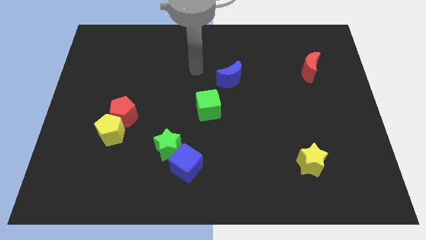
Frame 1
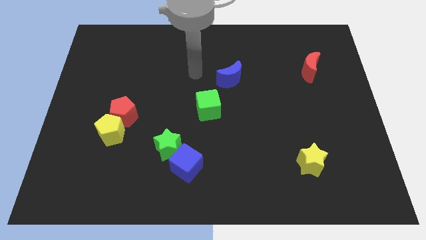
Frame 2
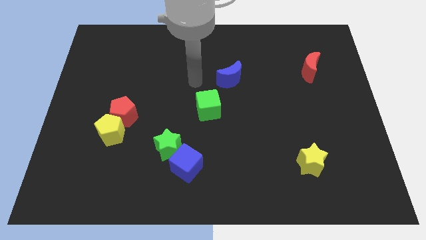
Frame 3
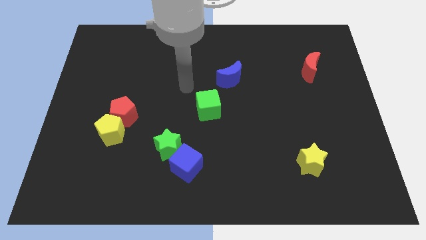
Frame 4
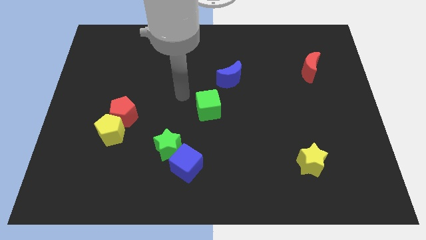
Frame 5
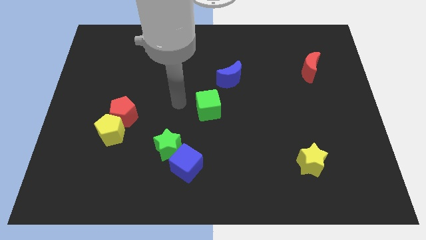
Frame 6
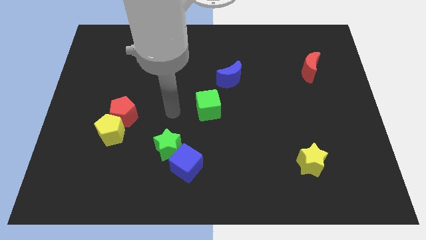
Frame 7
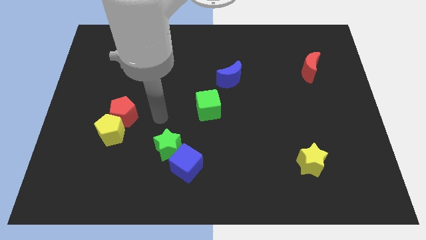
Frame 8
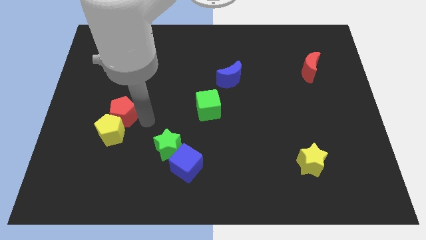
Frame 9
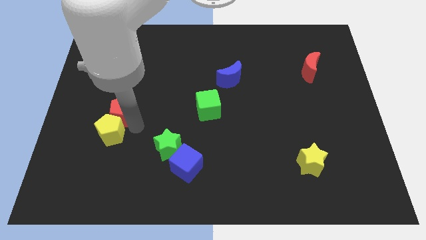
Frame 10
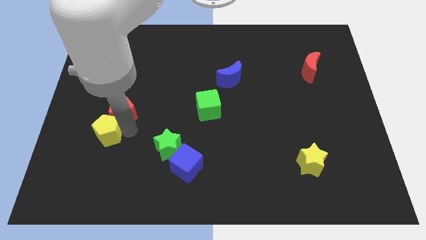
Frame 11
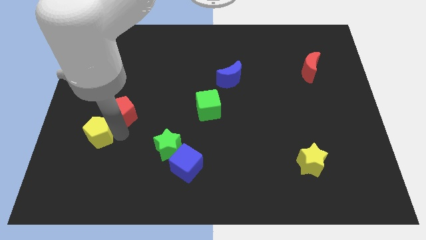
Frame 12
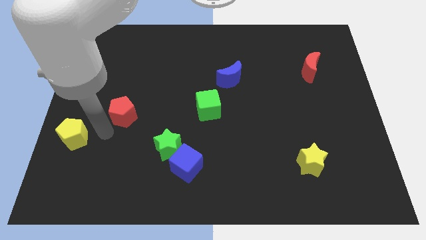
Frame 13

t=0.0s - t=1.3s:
pull the red pentagon apart from the yellow pentagon

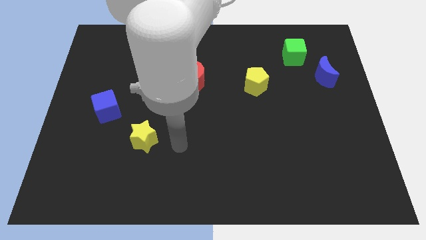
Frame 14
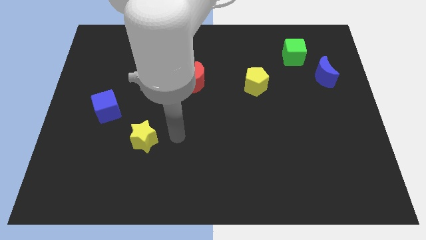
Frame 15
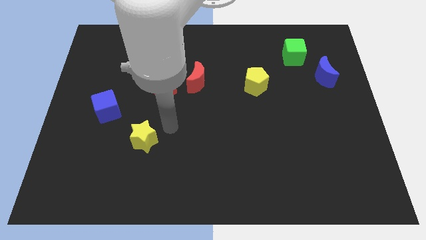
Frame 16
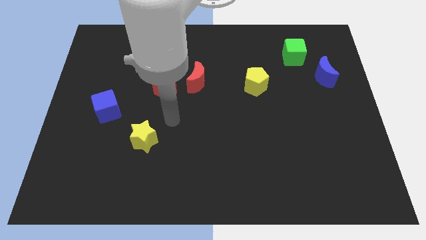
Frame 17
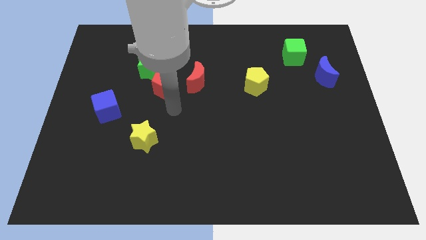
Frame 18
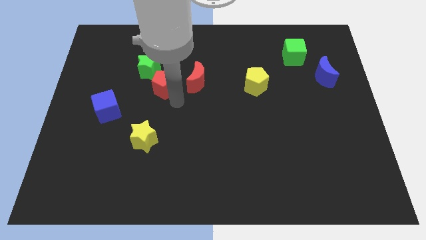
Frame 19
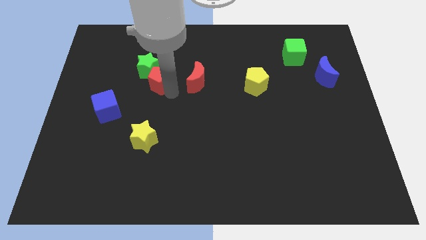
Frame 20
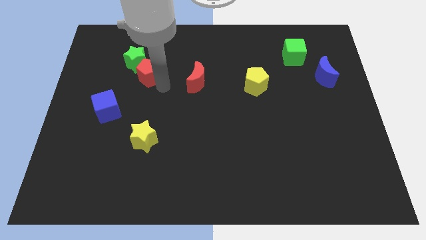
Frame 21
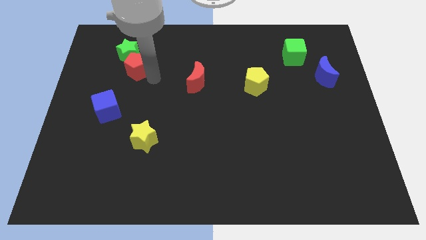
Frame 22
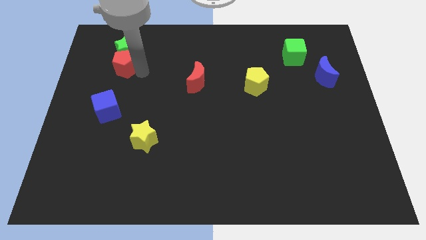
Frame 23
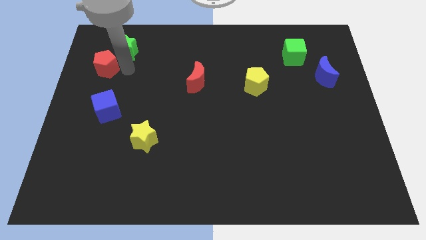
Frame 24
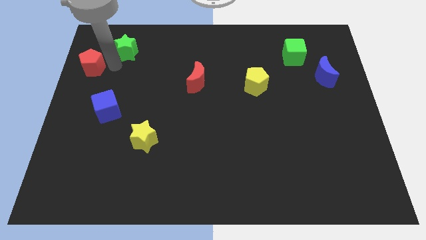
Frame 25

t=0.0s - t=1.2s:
pull the green star apart from the red pentagon

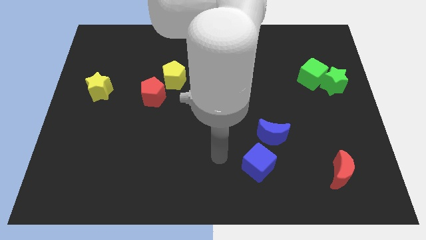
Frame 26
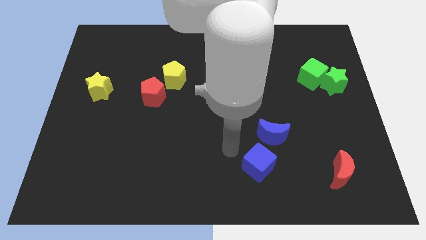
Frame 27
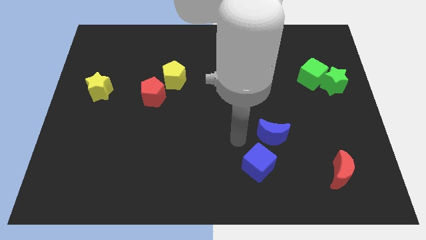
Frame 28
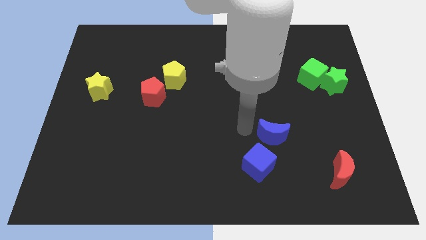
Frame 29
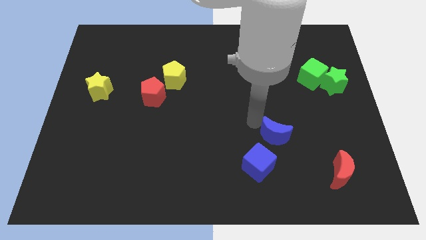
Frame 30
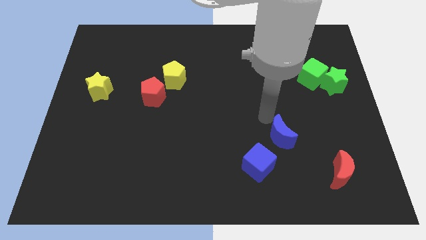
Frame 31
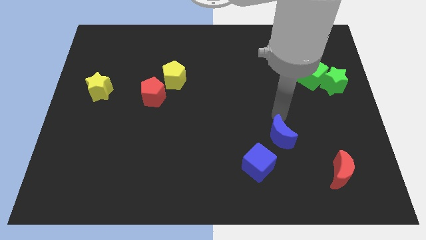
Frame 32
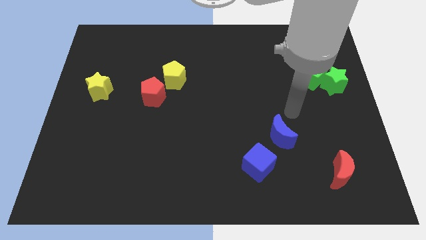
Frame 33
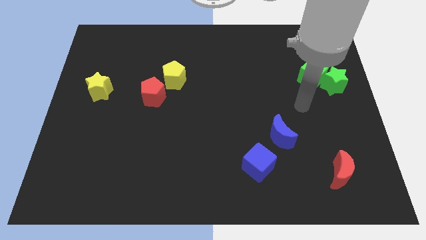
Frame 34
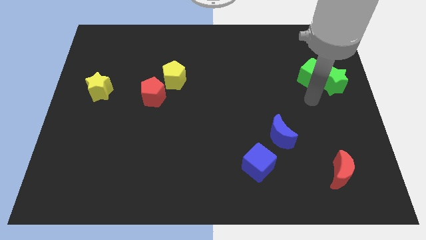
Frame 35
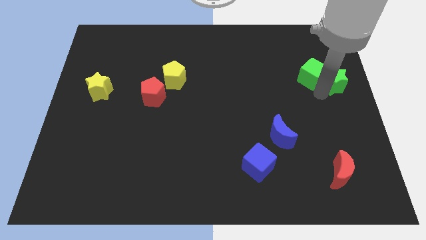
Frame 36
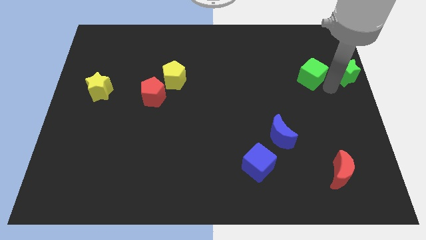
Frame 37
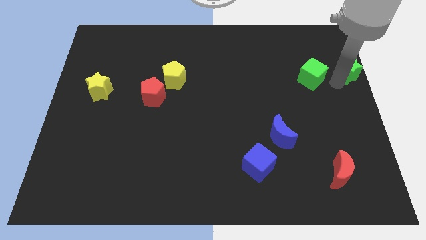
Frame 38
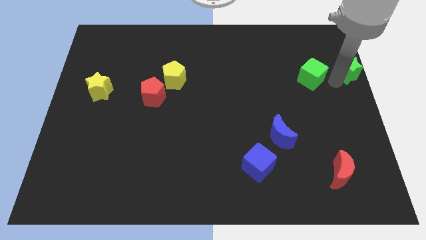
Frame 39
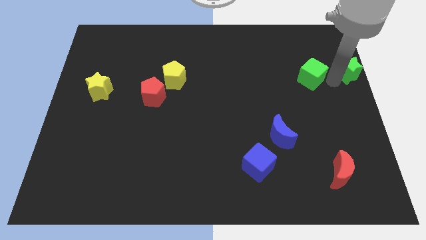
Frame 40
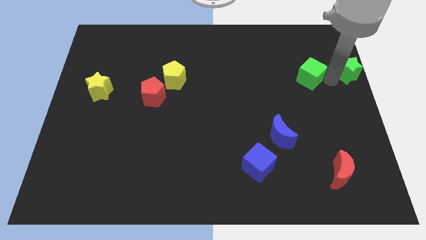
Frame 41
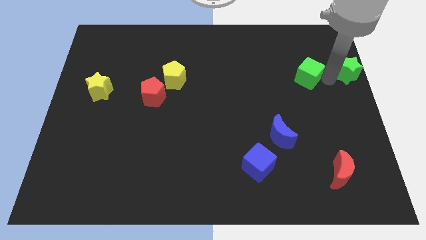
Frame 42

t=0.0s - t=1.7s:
move the green cube away from the green star

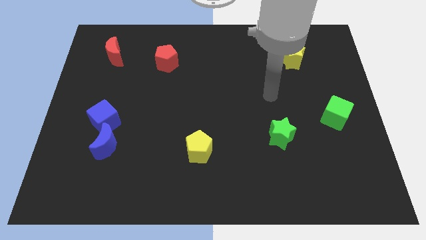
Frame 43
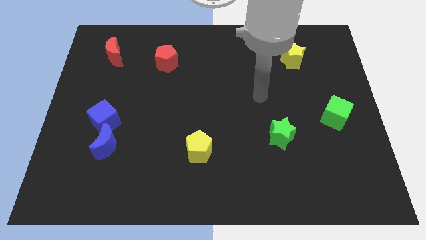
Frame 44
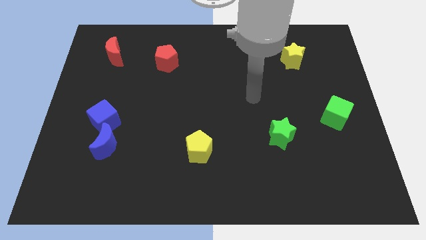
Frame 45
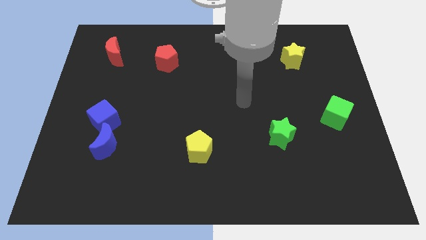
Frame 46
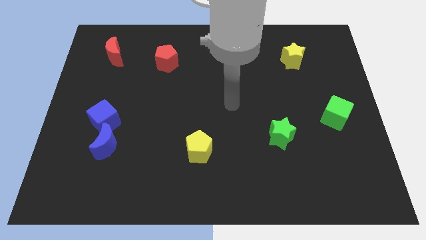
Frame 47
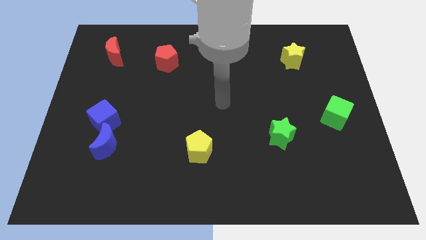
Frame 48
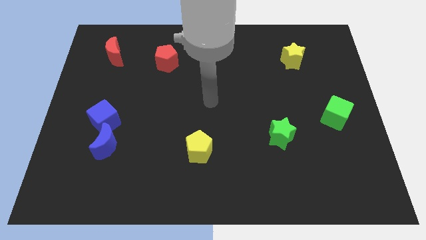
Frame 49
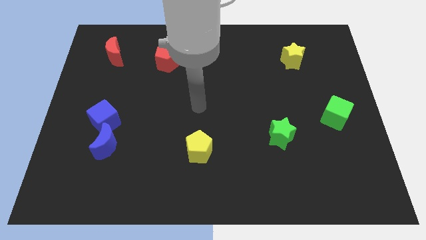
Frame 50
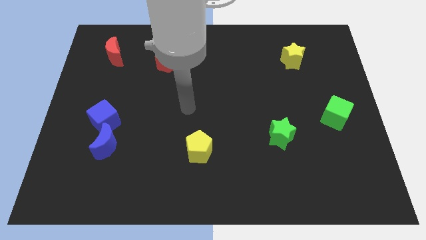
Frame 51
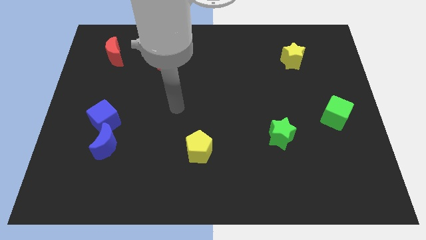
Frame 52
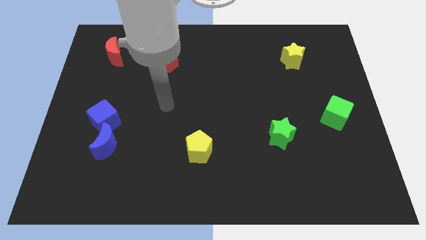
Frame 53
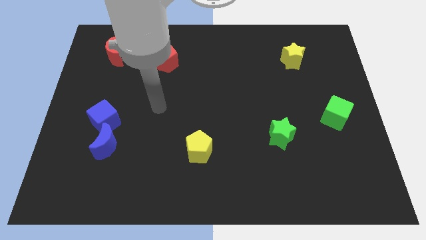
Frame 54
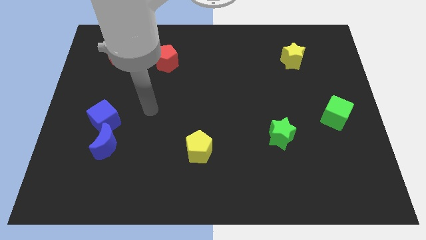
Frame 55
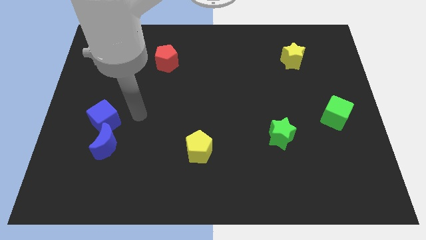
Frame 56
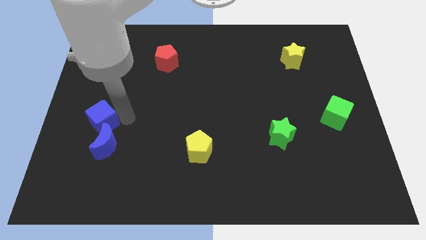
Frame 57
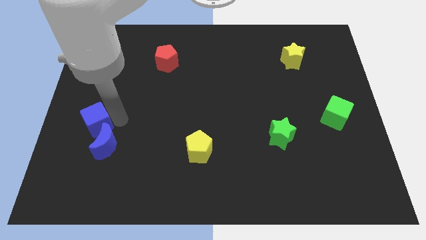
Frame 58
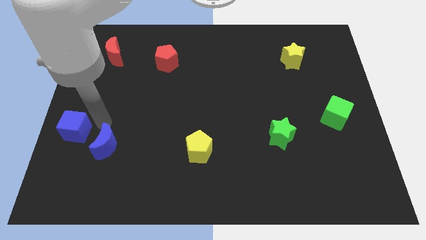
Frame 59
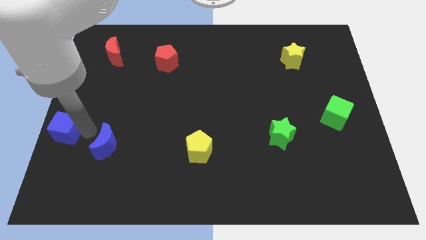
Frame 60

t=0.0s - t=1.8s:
pull the blue moon apart from the blue cube

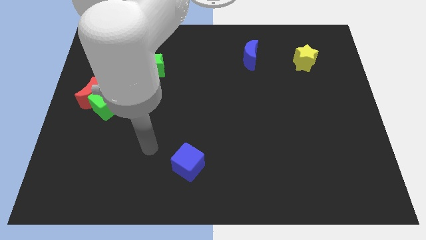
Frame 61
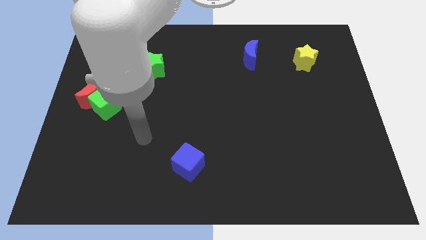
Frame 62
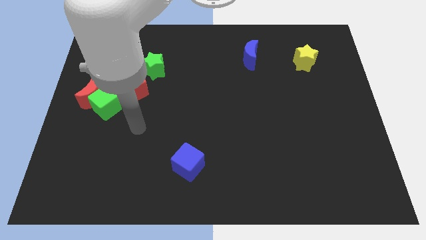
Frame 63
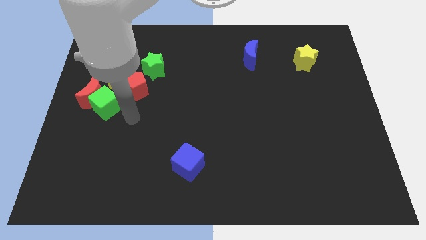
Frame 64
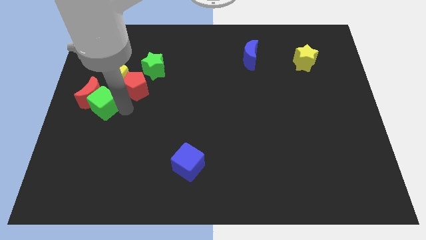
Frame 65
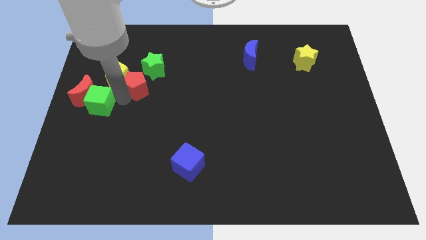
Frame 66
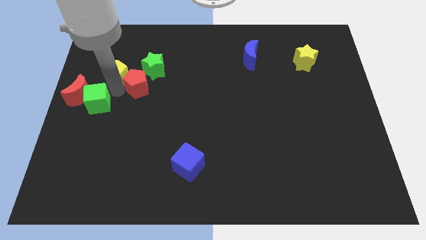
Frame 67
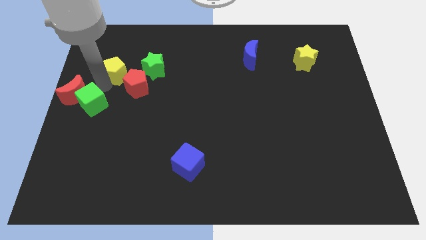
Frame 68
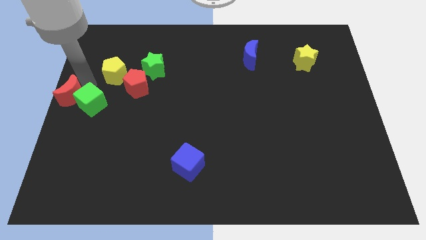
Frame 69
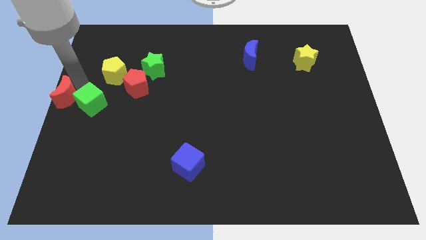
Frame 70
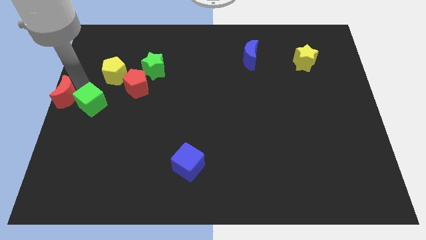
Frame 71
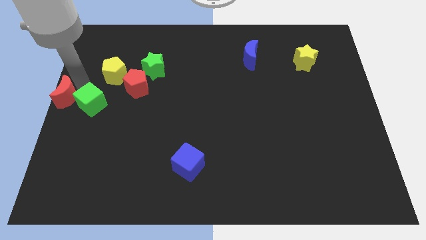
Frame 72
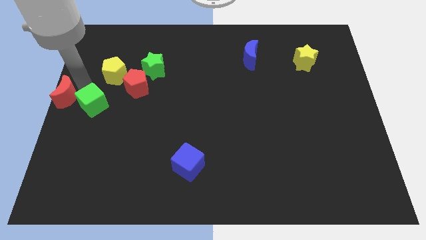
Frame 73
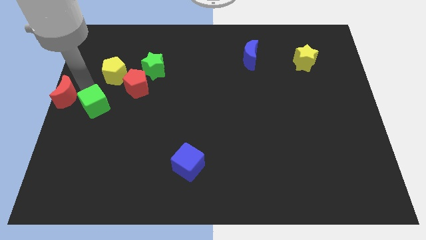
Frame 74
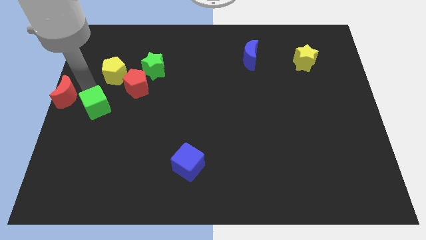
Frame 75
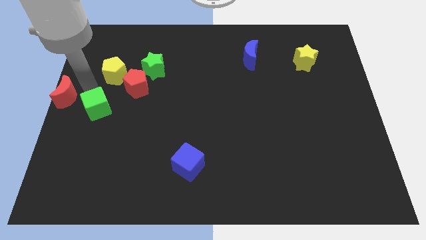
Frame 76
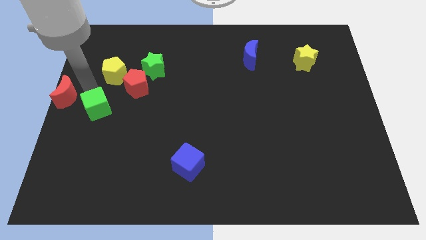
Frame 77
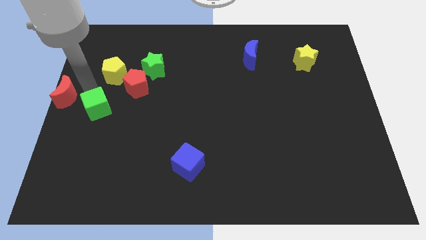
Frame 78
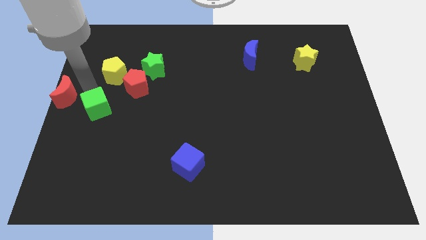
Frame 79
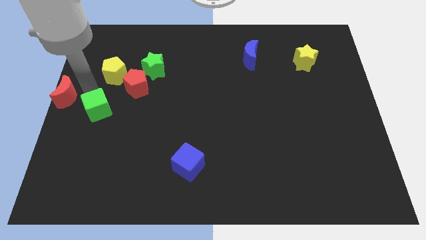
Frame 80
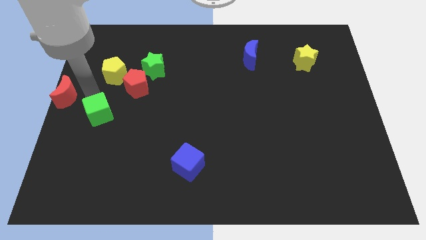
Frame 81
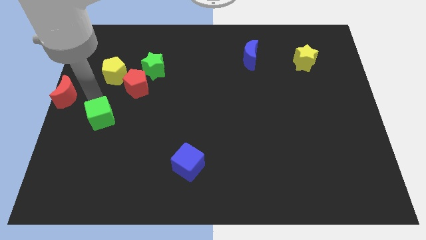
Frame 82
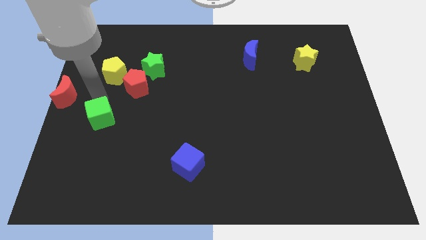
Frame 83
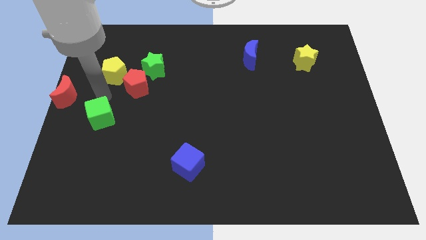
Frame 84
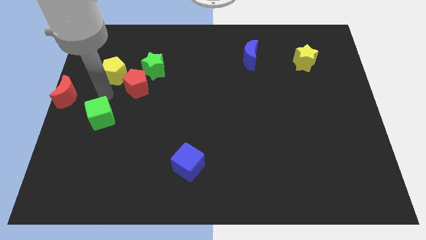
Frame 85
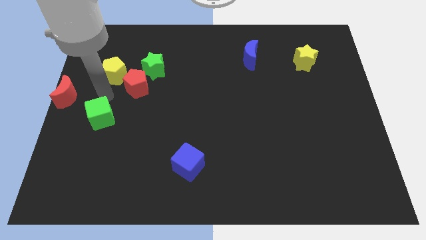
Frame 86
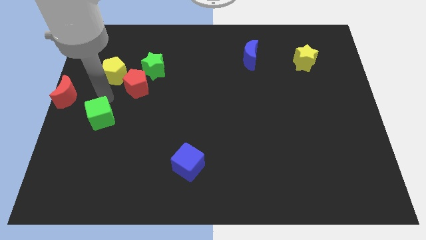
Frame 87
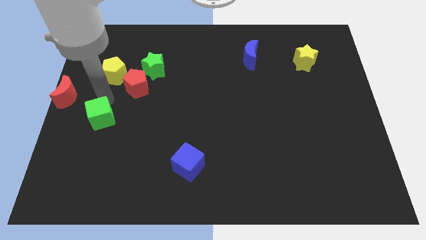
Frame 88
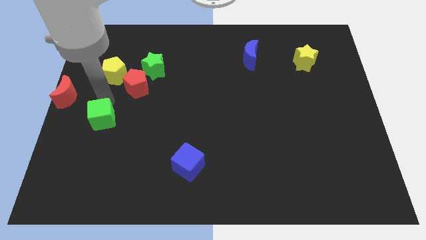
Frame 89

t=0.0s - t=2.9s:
separate the green cube from the red moon, red pentagon, and yellow pentagon

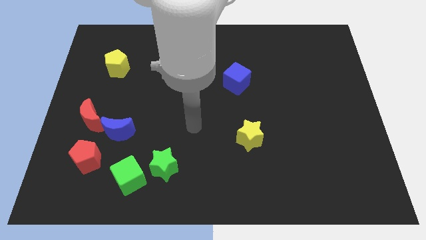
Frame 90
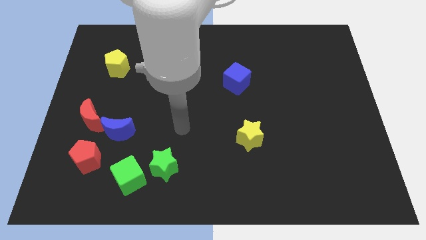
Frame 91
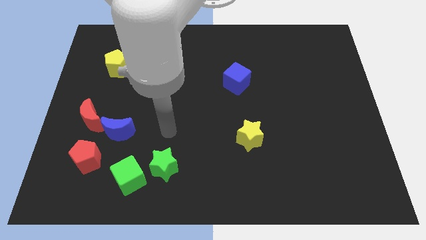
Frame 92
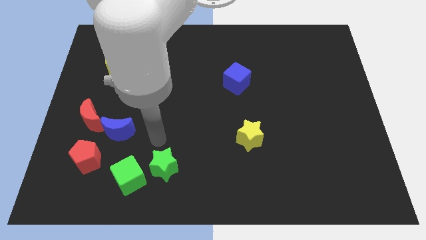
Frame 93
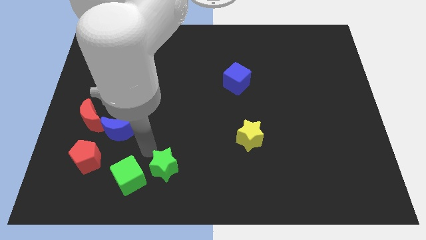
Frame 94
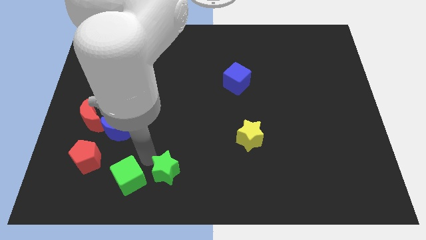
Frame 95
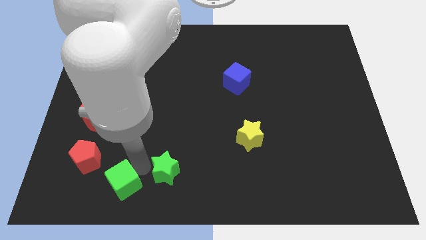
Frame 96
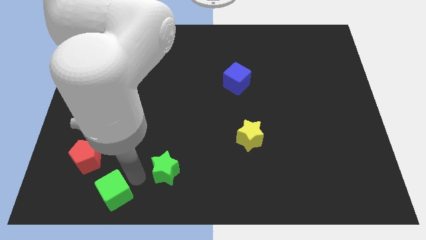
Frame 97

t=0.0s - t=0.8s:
separate the green star from the green cube
